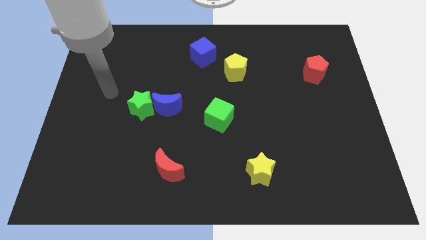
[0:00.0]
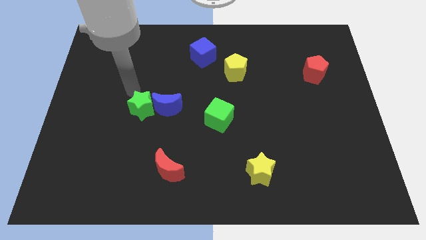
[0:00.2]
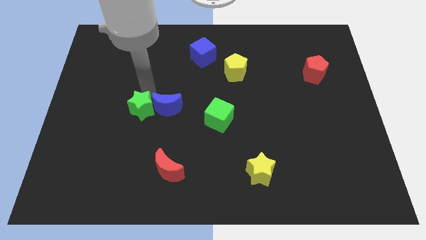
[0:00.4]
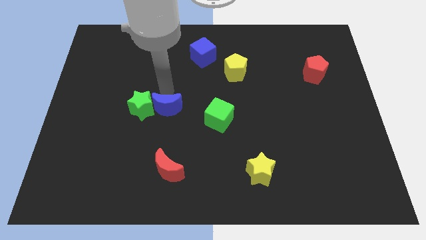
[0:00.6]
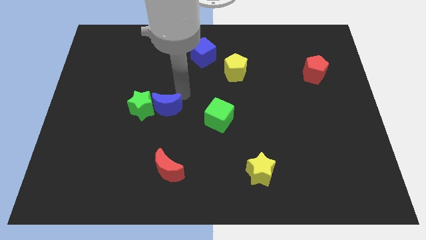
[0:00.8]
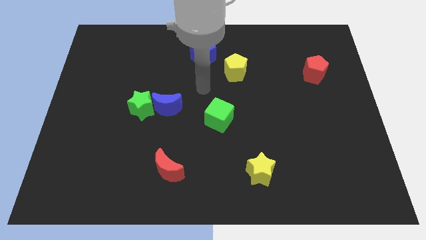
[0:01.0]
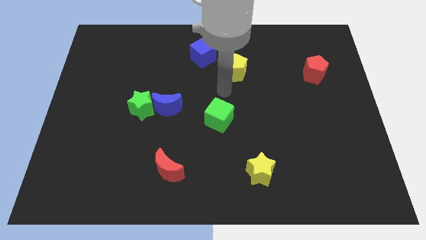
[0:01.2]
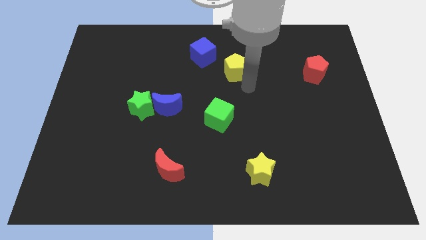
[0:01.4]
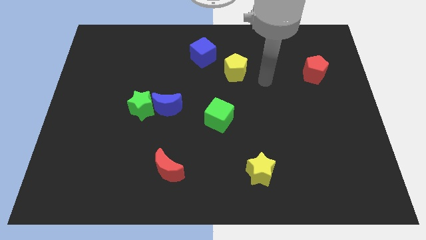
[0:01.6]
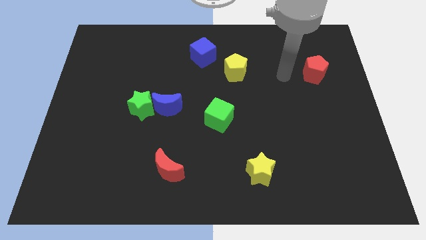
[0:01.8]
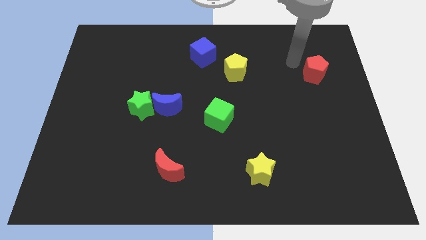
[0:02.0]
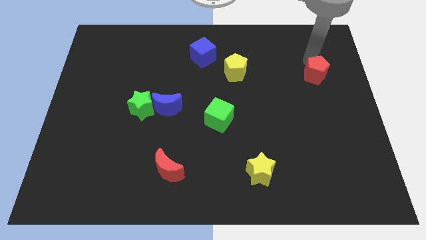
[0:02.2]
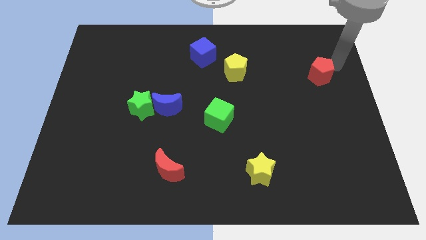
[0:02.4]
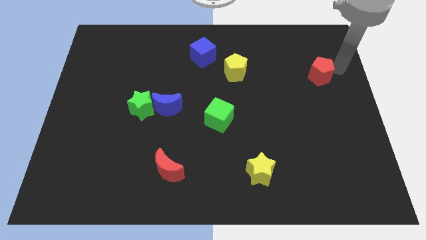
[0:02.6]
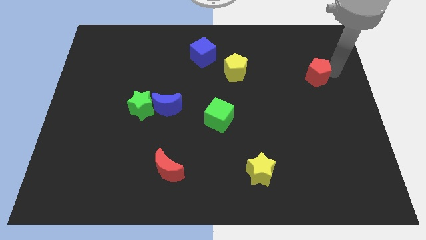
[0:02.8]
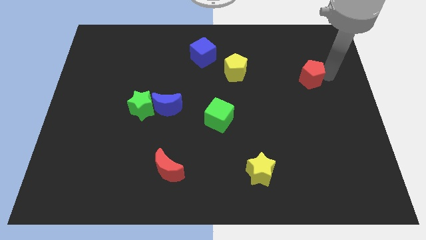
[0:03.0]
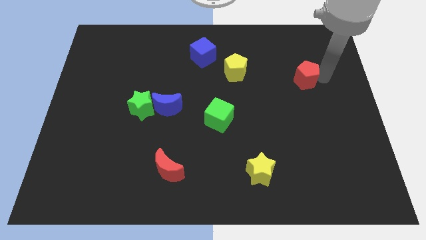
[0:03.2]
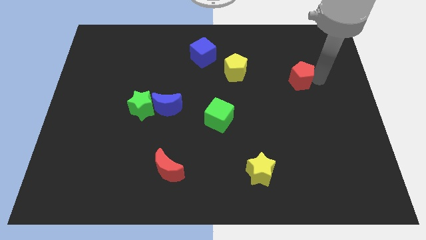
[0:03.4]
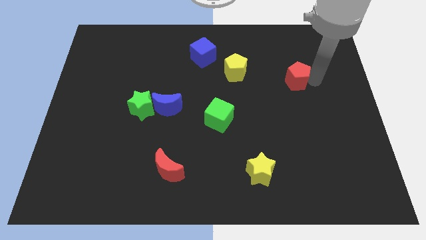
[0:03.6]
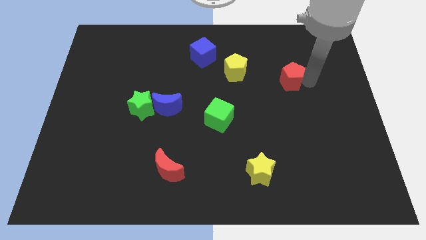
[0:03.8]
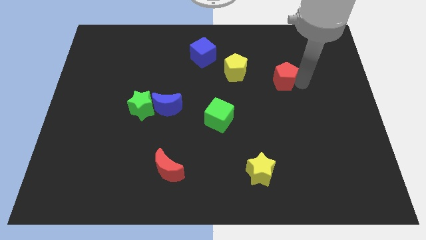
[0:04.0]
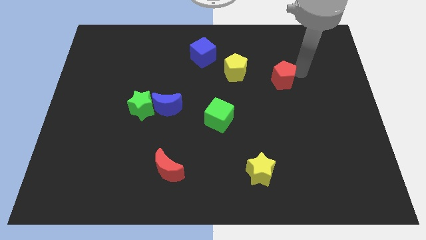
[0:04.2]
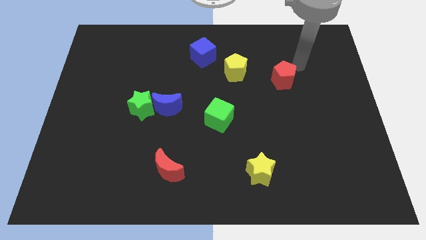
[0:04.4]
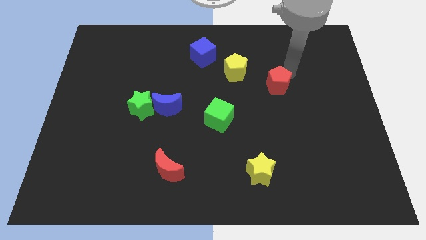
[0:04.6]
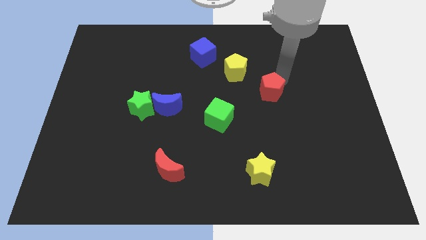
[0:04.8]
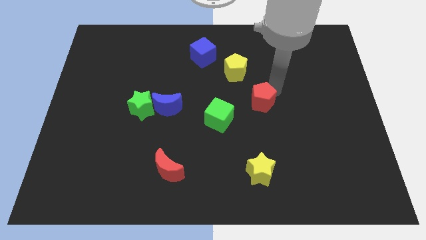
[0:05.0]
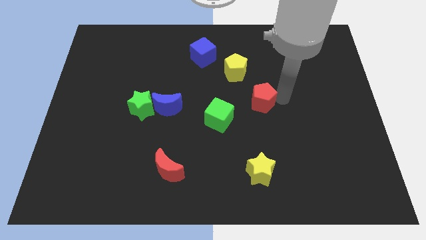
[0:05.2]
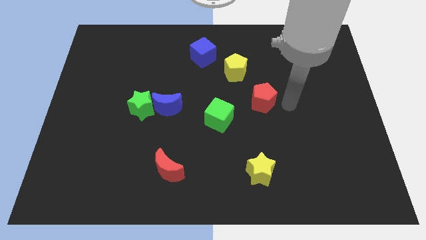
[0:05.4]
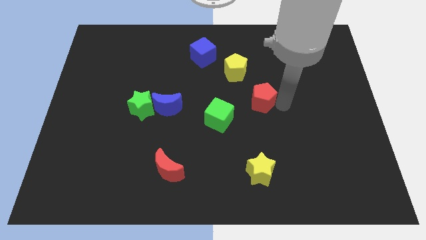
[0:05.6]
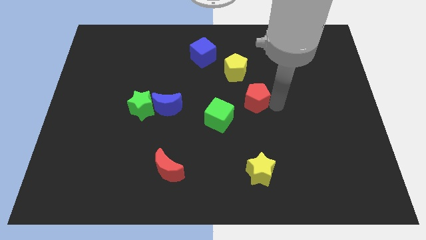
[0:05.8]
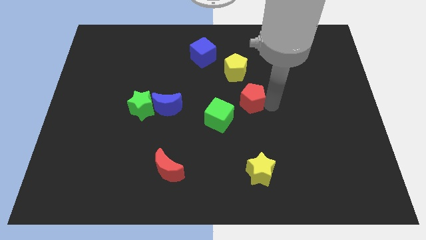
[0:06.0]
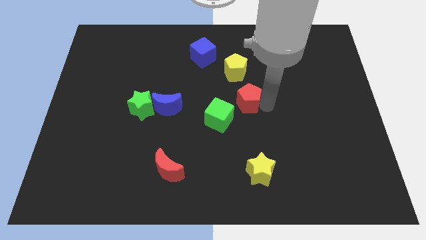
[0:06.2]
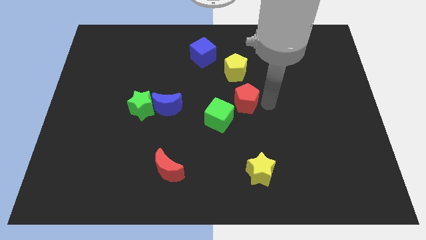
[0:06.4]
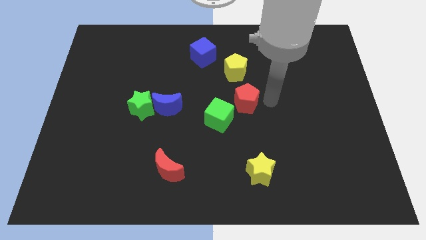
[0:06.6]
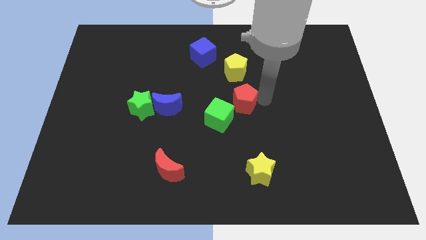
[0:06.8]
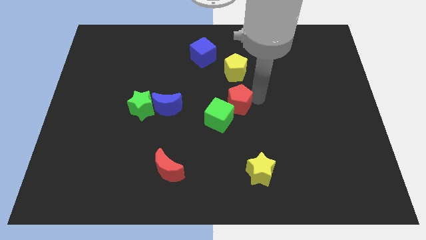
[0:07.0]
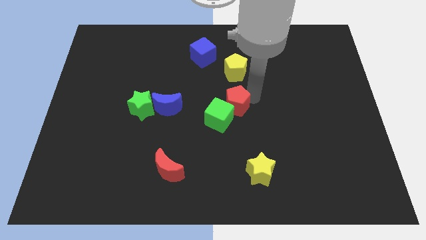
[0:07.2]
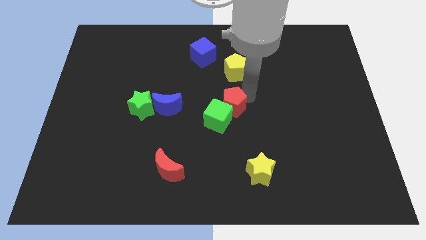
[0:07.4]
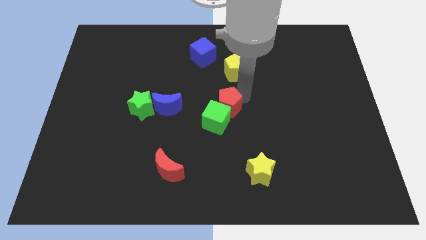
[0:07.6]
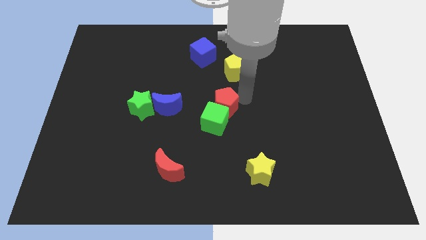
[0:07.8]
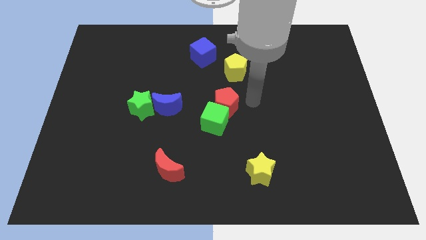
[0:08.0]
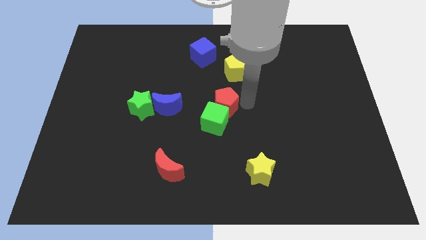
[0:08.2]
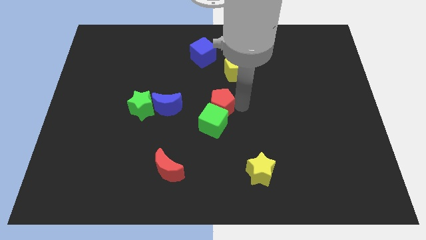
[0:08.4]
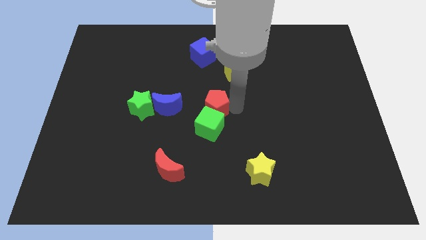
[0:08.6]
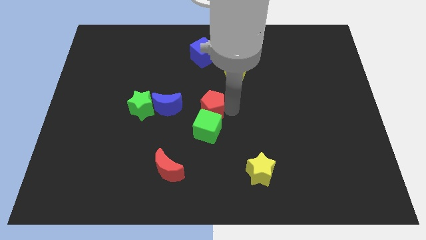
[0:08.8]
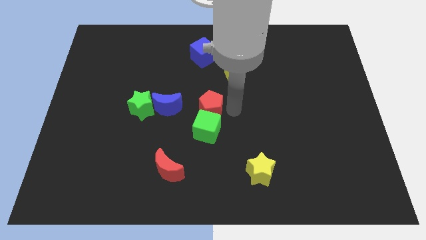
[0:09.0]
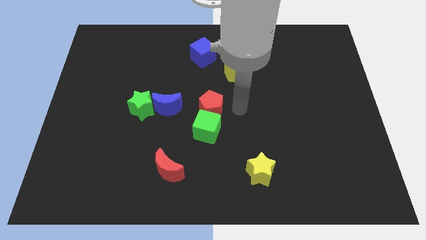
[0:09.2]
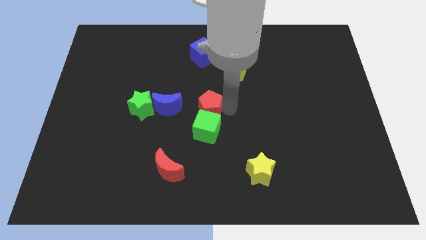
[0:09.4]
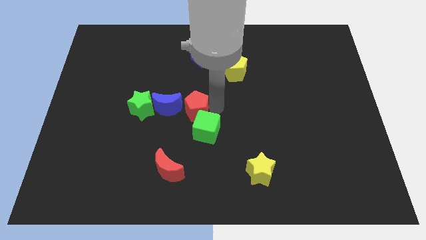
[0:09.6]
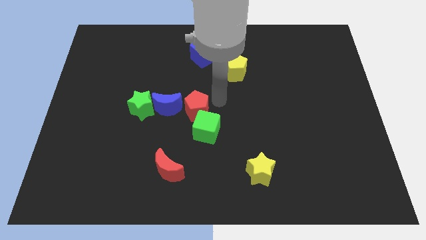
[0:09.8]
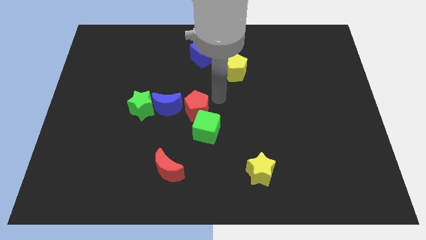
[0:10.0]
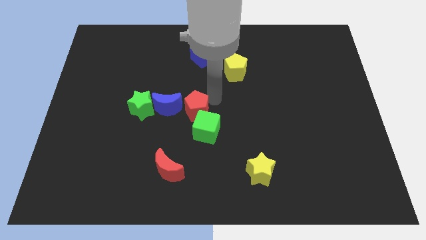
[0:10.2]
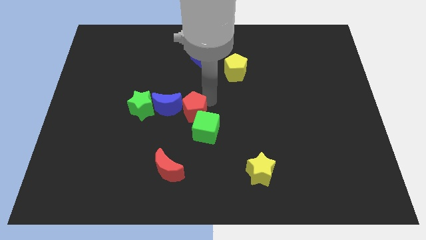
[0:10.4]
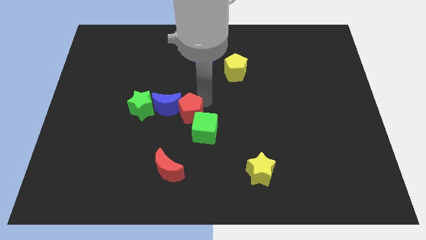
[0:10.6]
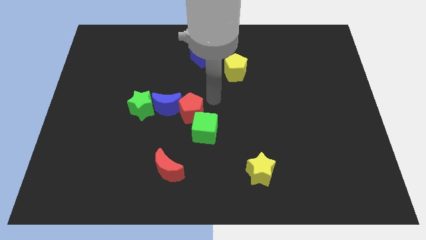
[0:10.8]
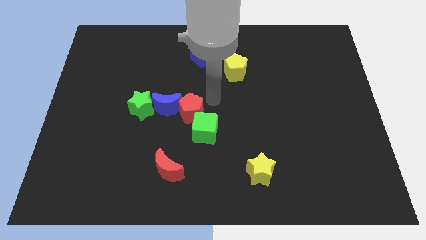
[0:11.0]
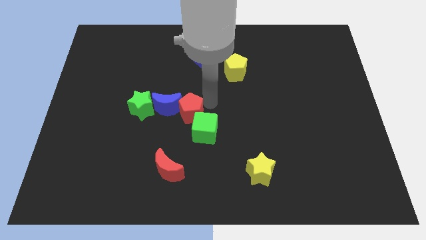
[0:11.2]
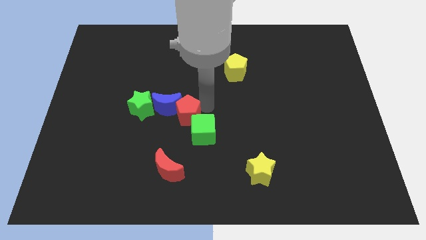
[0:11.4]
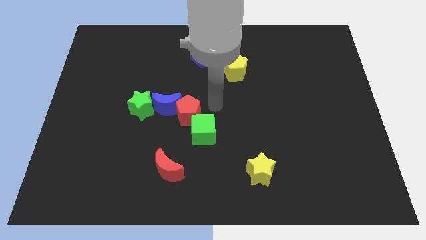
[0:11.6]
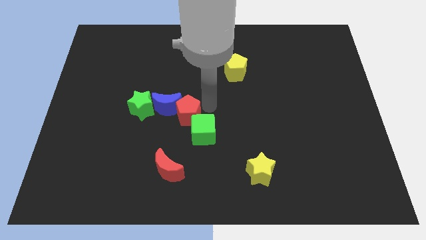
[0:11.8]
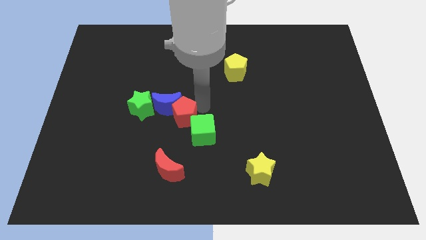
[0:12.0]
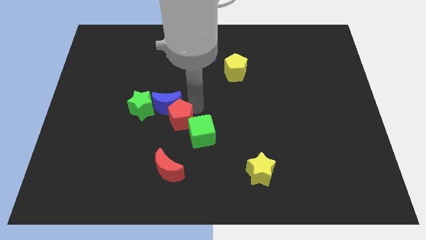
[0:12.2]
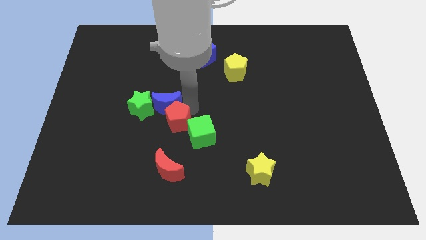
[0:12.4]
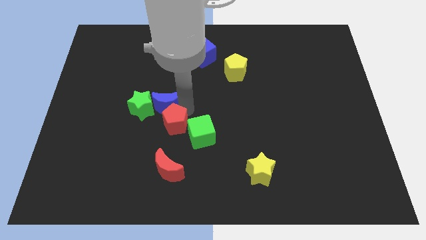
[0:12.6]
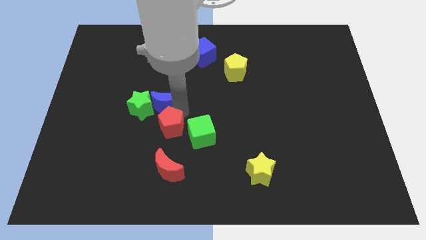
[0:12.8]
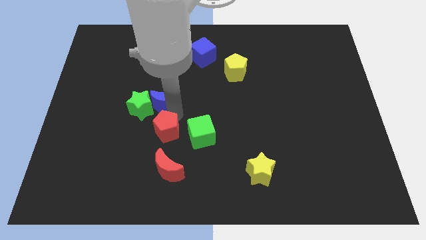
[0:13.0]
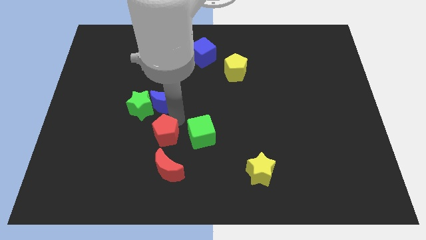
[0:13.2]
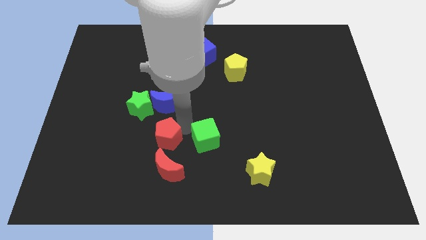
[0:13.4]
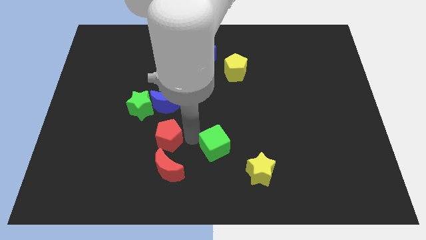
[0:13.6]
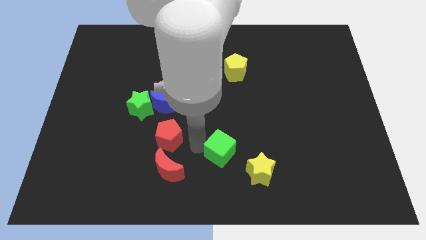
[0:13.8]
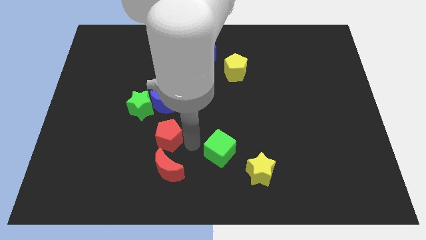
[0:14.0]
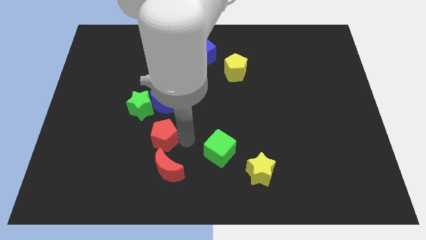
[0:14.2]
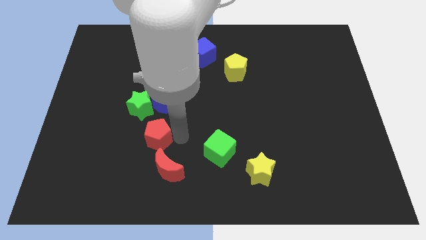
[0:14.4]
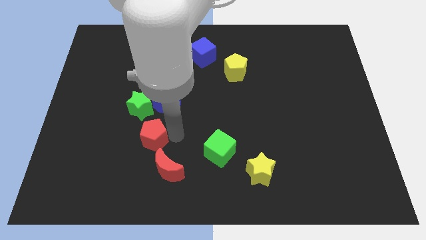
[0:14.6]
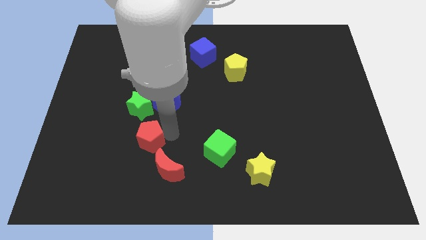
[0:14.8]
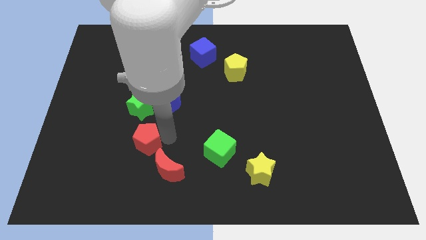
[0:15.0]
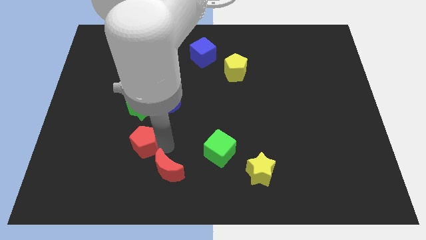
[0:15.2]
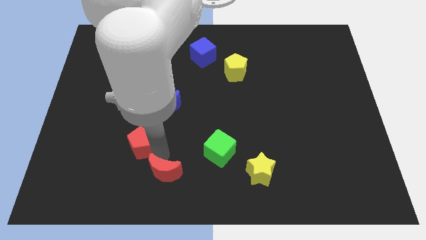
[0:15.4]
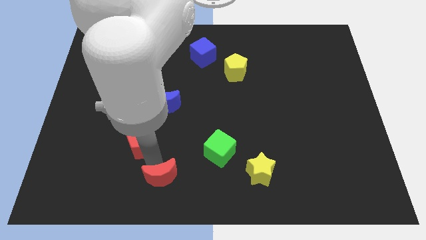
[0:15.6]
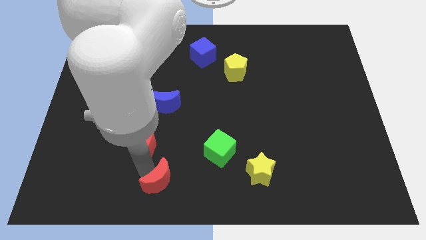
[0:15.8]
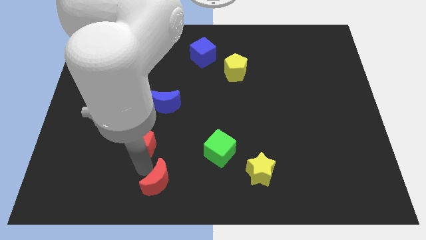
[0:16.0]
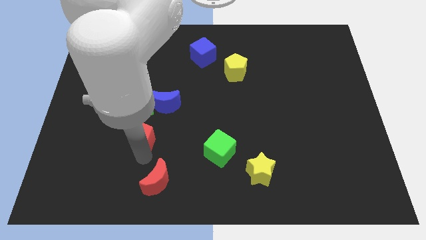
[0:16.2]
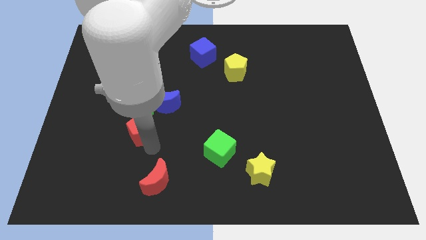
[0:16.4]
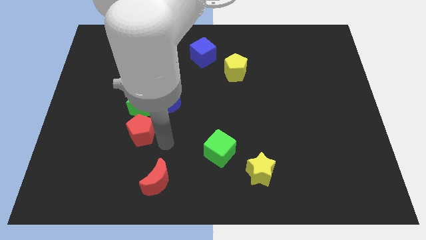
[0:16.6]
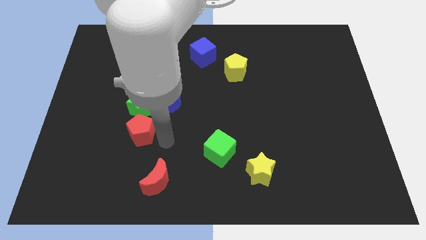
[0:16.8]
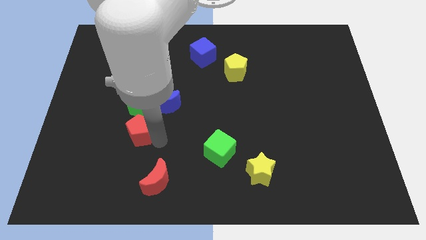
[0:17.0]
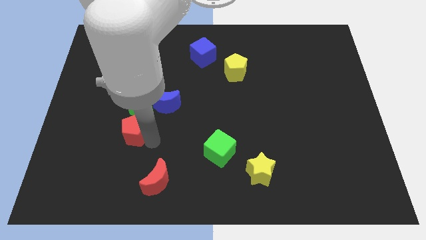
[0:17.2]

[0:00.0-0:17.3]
put the red pentagon to the bottom left side of the green star
